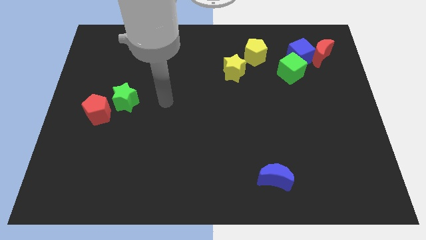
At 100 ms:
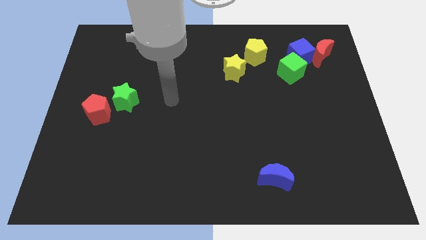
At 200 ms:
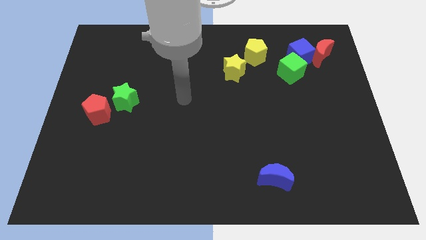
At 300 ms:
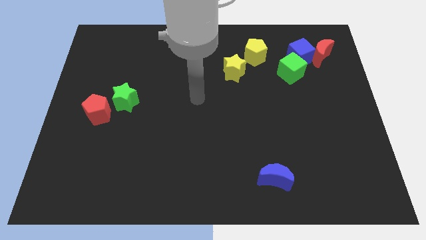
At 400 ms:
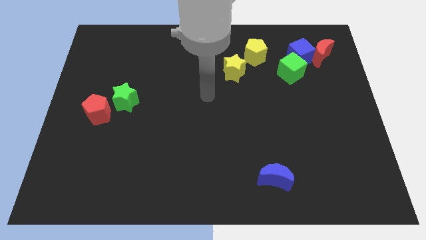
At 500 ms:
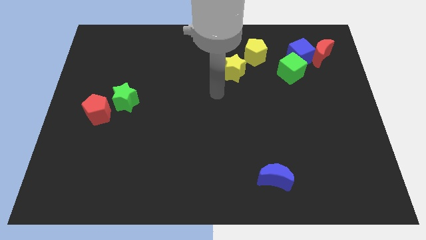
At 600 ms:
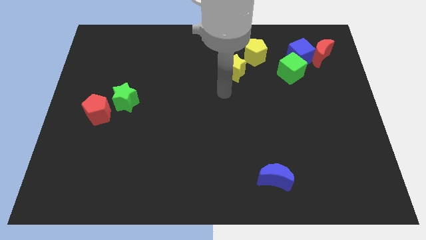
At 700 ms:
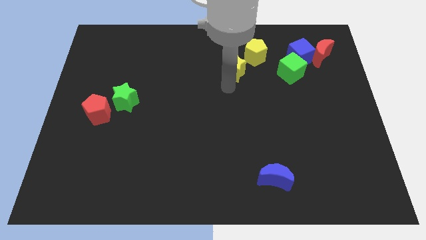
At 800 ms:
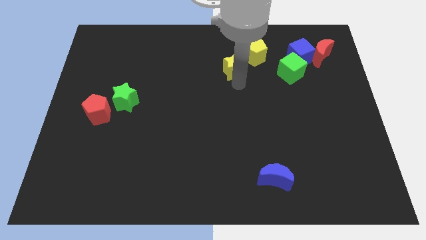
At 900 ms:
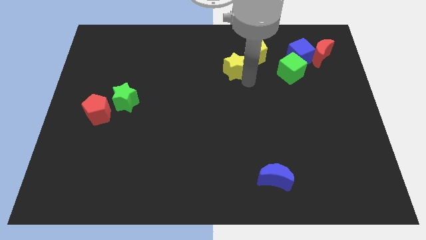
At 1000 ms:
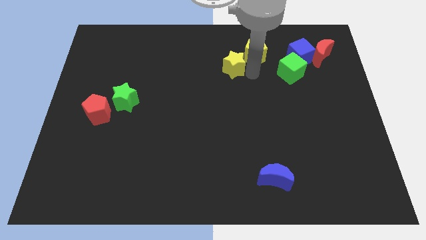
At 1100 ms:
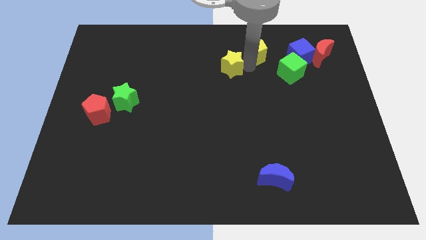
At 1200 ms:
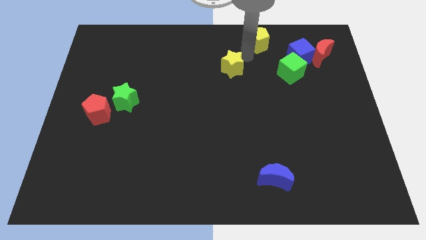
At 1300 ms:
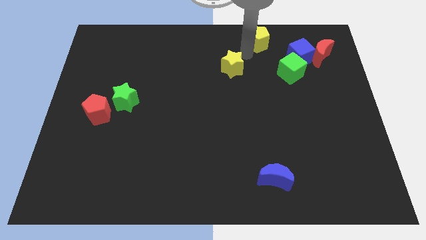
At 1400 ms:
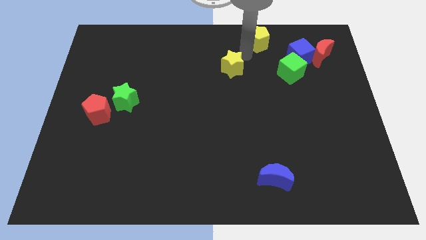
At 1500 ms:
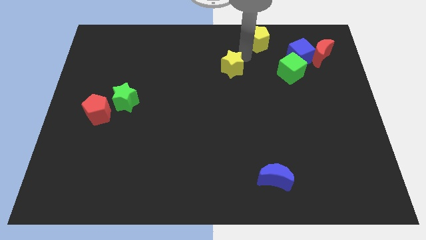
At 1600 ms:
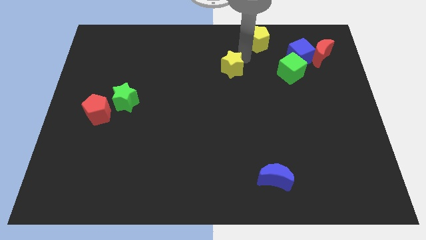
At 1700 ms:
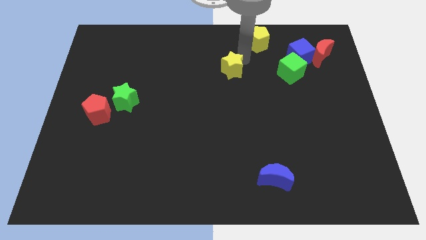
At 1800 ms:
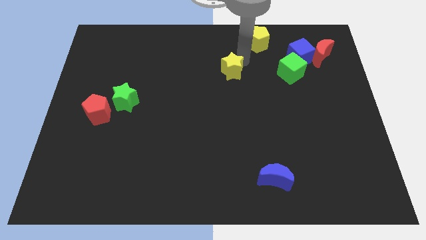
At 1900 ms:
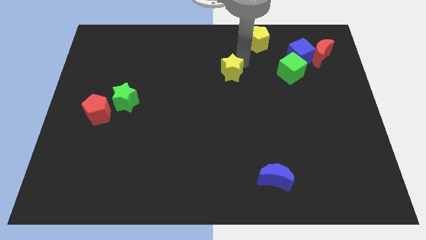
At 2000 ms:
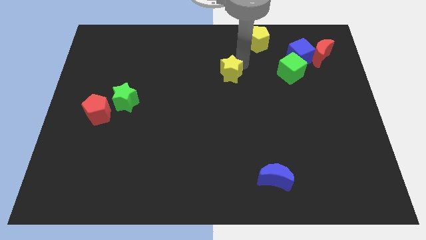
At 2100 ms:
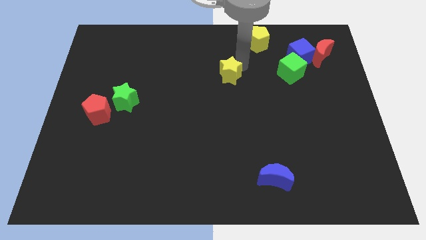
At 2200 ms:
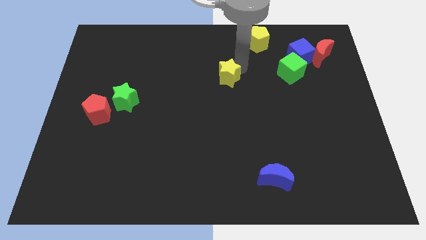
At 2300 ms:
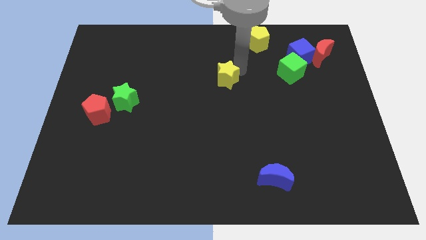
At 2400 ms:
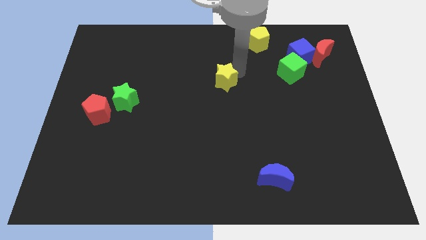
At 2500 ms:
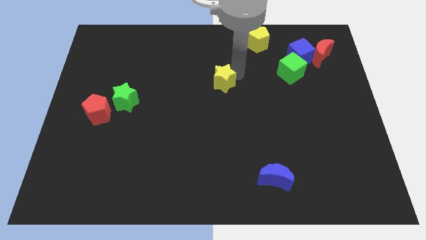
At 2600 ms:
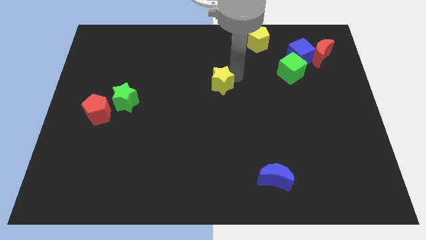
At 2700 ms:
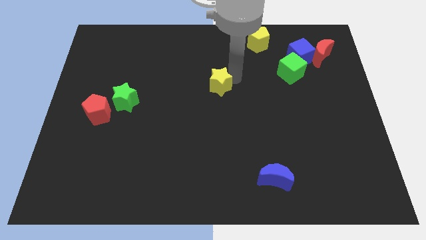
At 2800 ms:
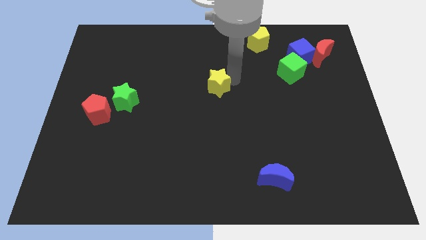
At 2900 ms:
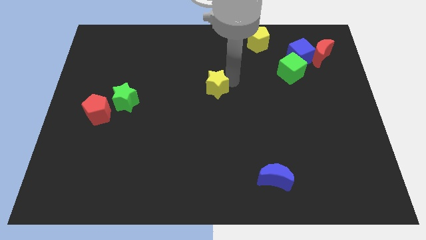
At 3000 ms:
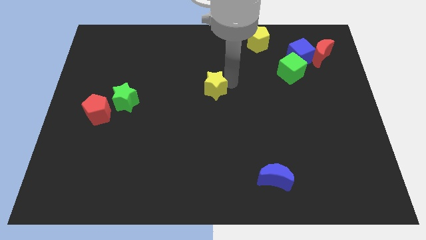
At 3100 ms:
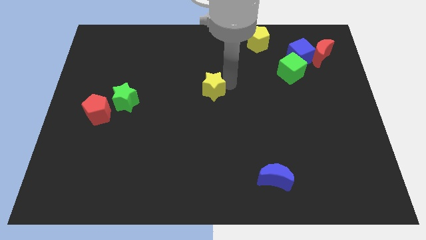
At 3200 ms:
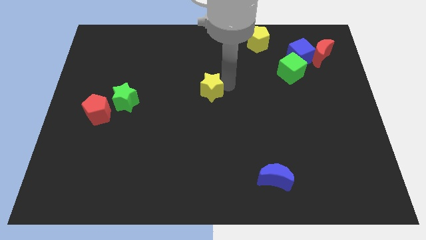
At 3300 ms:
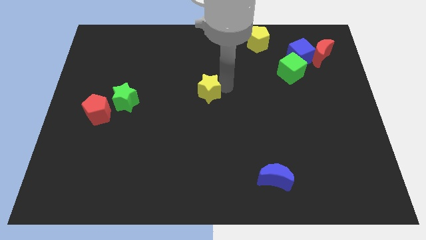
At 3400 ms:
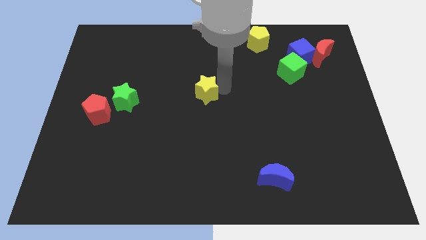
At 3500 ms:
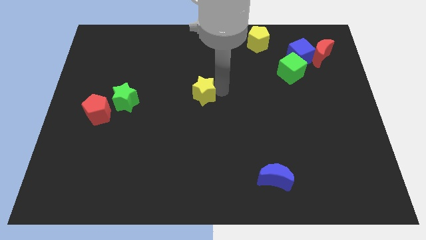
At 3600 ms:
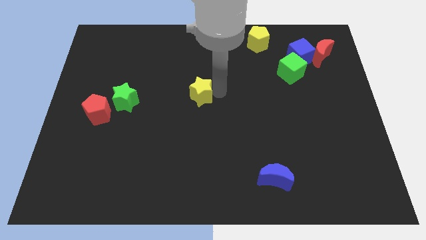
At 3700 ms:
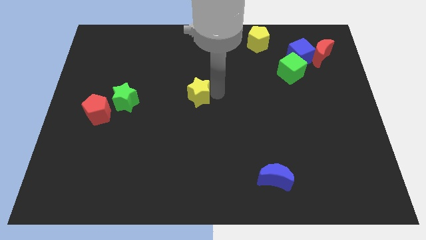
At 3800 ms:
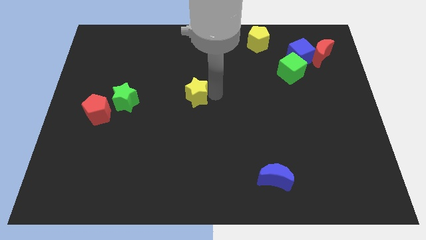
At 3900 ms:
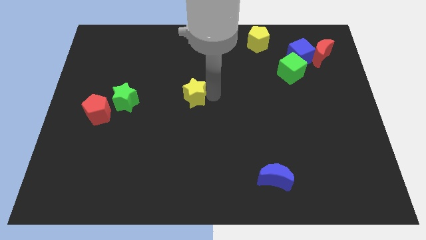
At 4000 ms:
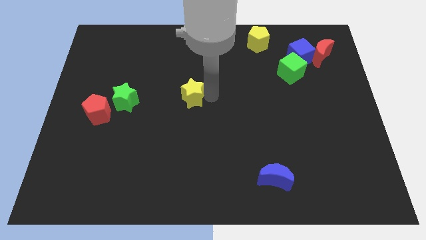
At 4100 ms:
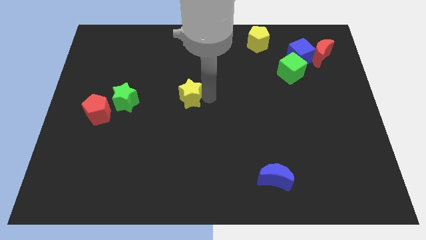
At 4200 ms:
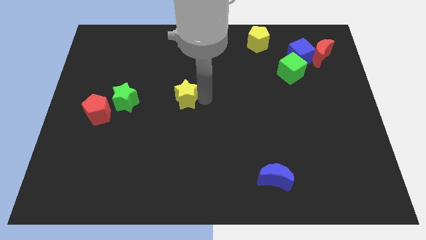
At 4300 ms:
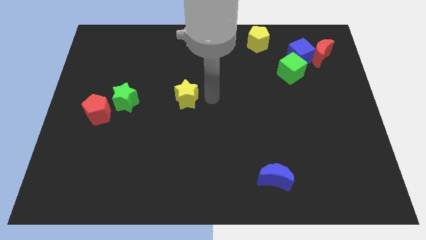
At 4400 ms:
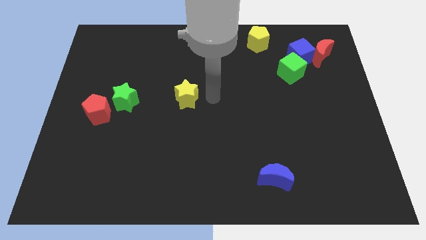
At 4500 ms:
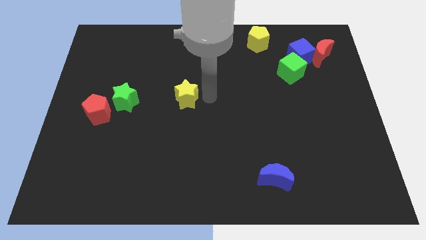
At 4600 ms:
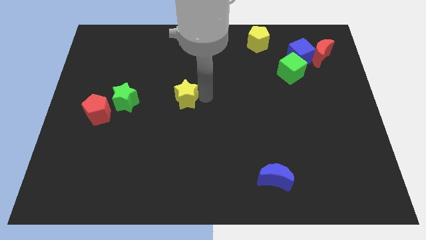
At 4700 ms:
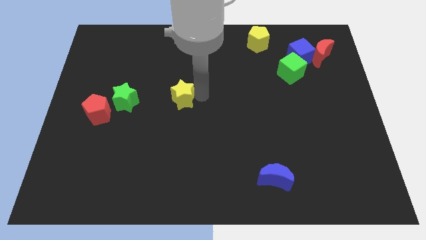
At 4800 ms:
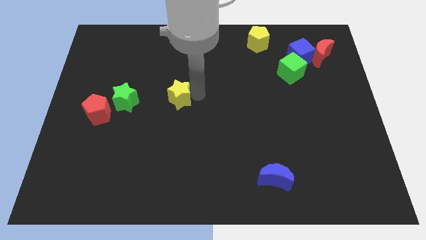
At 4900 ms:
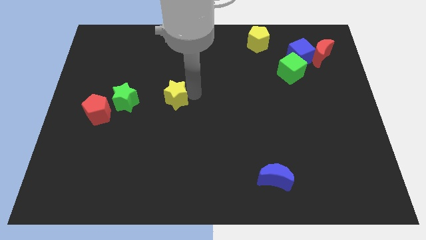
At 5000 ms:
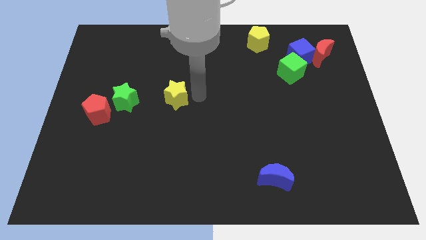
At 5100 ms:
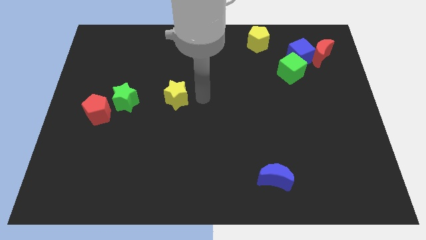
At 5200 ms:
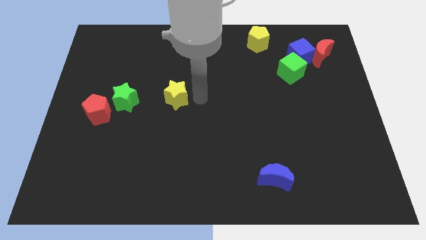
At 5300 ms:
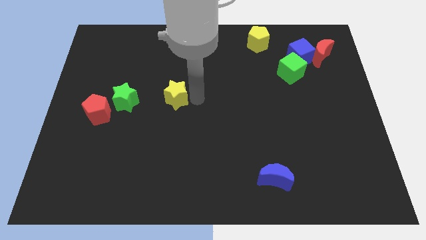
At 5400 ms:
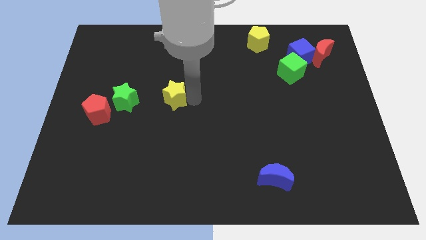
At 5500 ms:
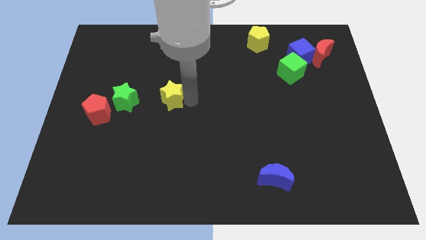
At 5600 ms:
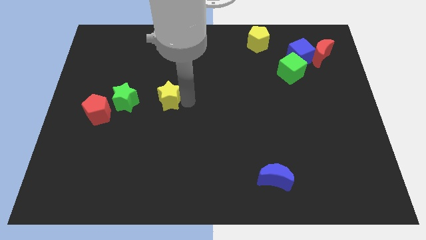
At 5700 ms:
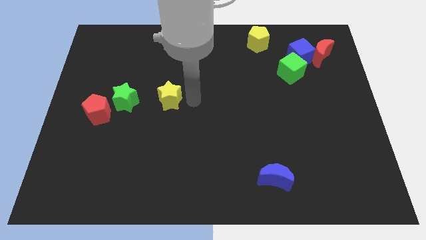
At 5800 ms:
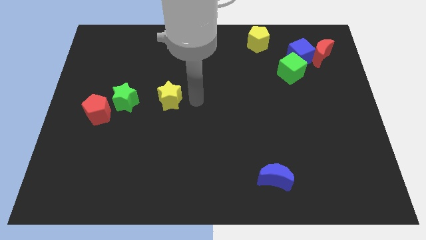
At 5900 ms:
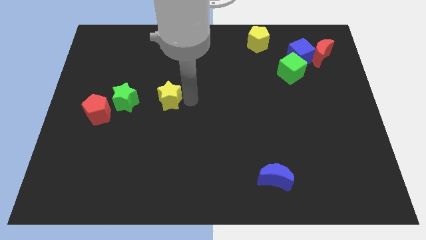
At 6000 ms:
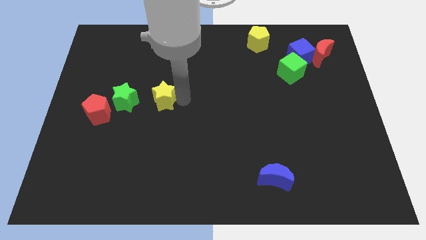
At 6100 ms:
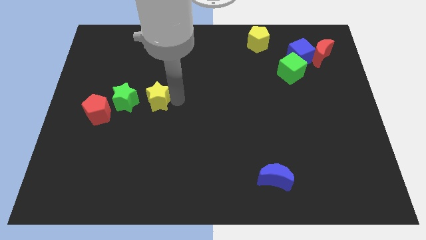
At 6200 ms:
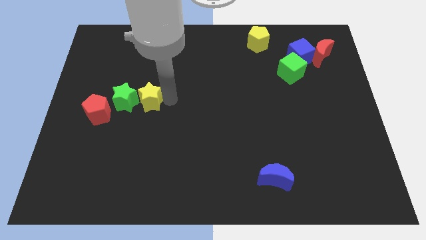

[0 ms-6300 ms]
put the yellow star close to the green star

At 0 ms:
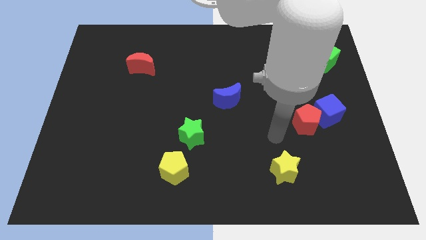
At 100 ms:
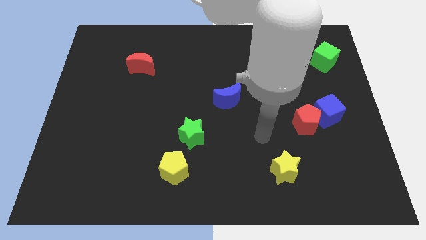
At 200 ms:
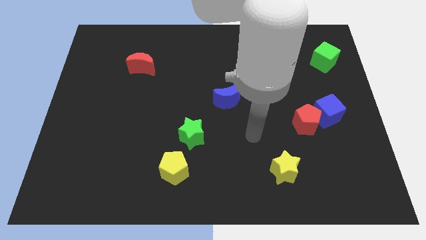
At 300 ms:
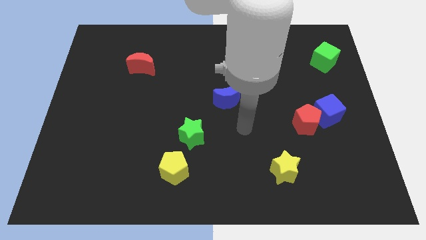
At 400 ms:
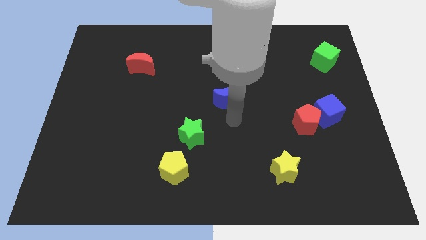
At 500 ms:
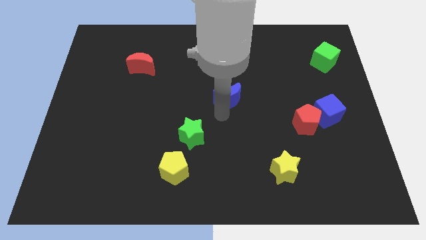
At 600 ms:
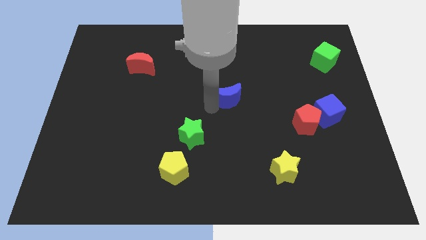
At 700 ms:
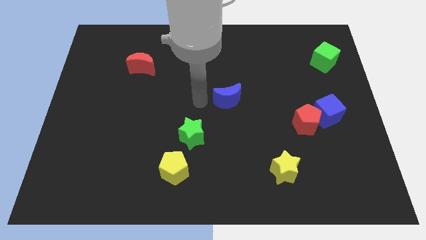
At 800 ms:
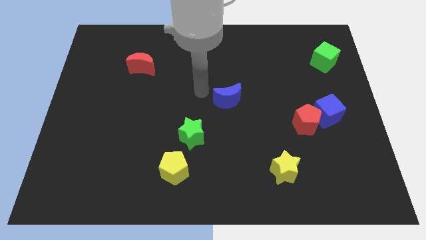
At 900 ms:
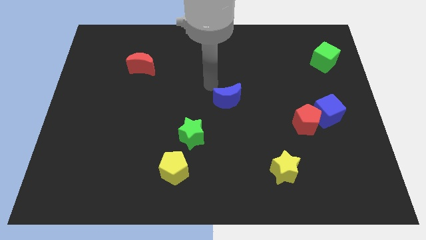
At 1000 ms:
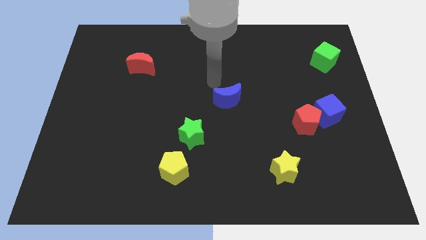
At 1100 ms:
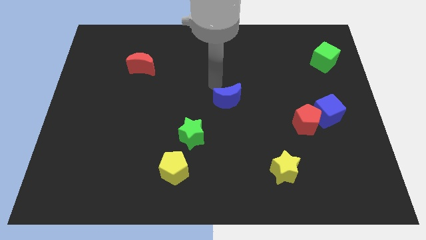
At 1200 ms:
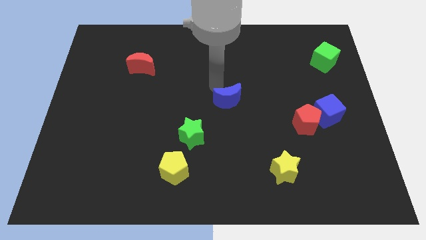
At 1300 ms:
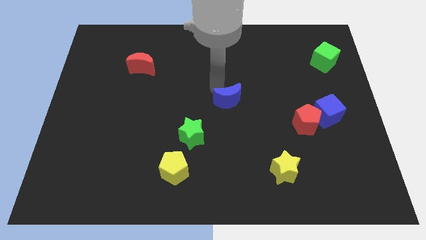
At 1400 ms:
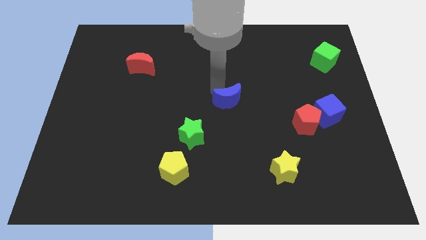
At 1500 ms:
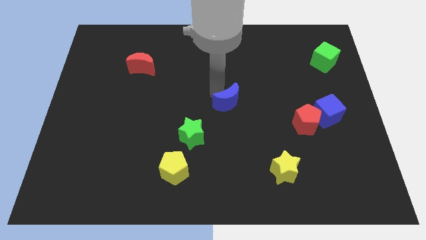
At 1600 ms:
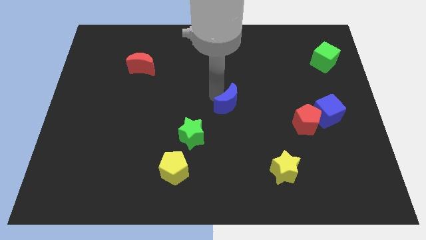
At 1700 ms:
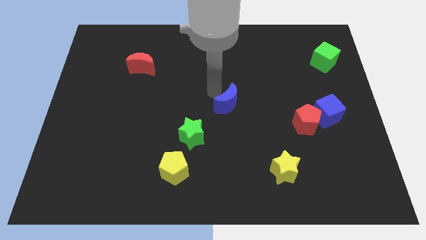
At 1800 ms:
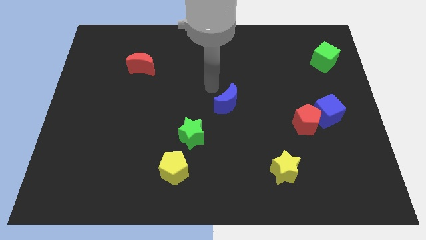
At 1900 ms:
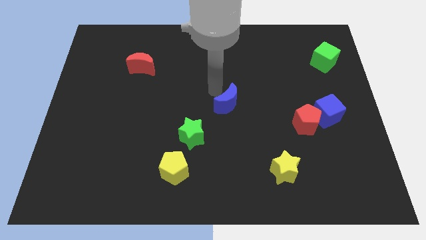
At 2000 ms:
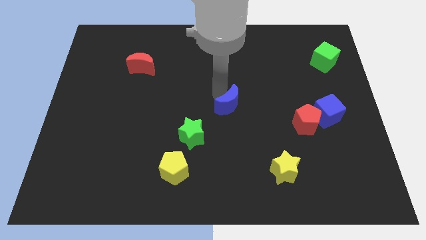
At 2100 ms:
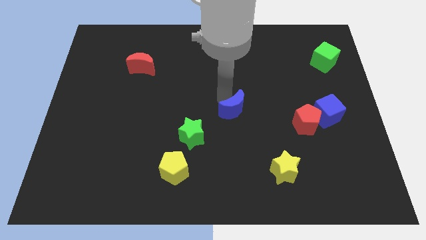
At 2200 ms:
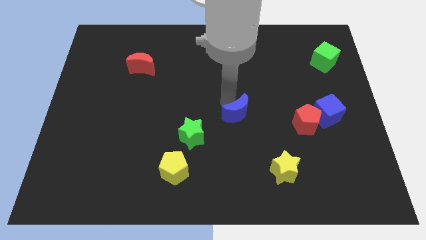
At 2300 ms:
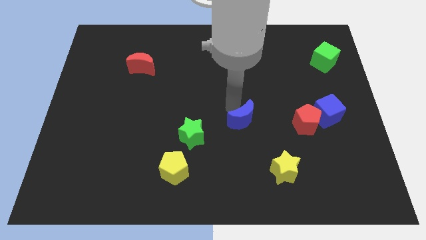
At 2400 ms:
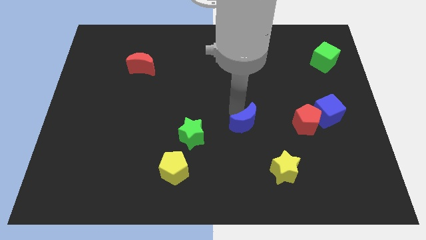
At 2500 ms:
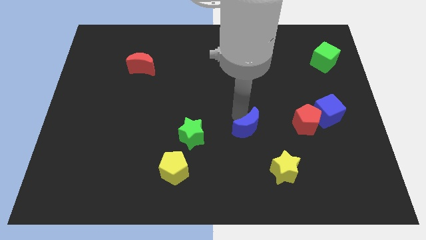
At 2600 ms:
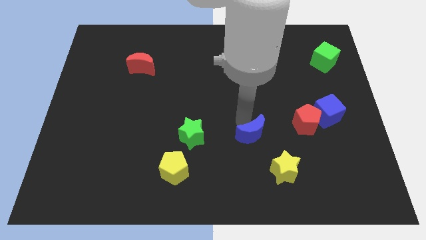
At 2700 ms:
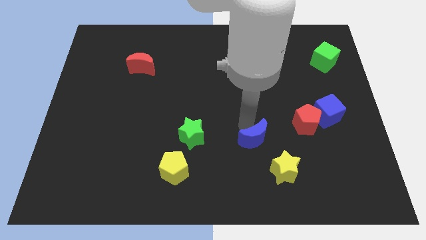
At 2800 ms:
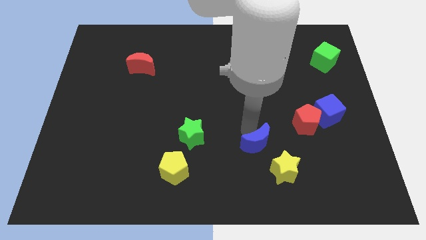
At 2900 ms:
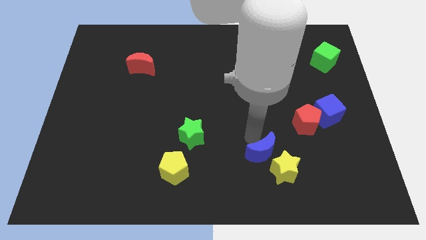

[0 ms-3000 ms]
put the blue moon towards the yellow star
